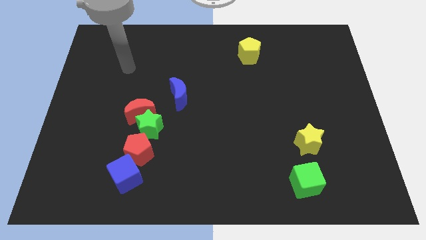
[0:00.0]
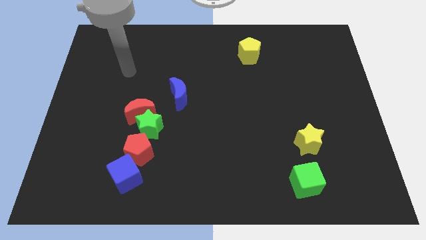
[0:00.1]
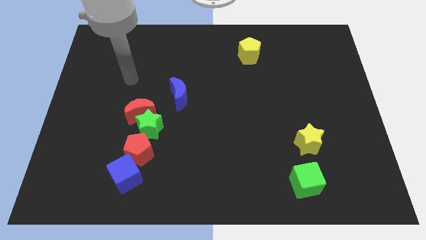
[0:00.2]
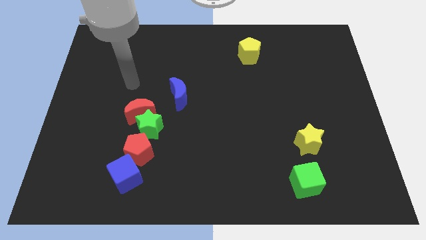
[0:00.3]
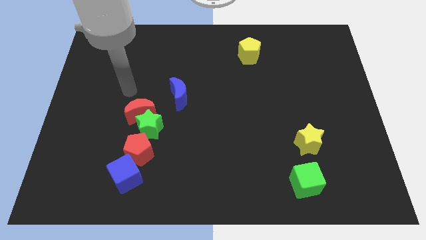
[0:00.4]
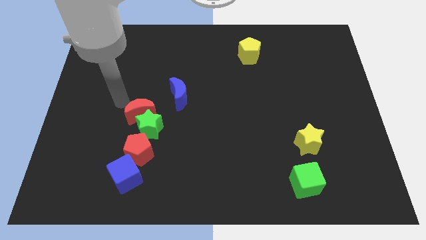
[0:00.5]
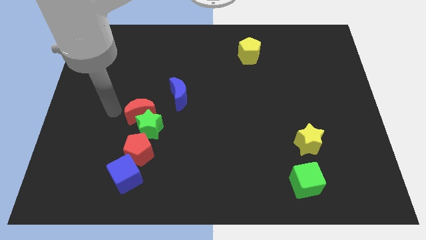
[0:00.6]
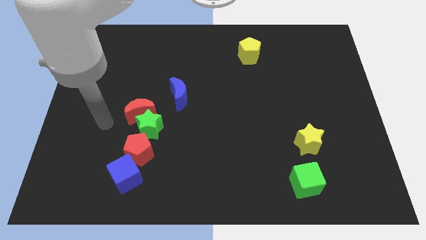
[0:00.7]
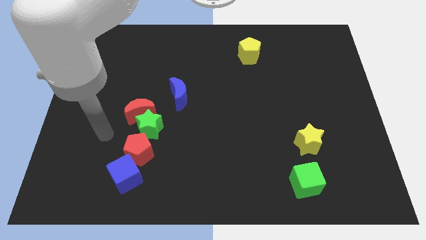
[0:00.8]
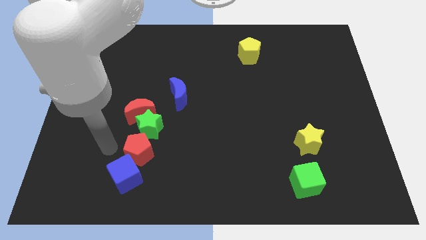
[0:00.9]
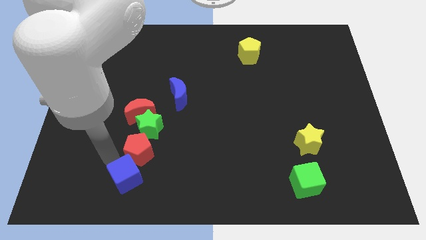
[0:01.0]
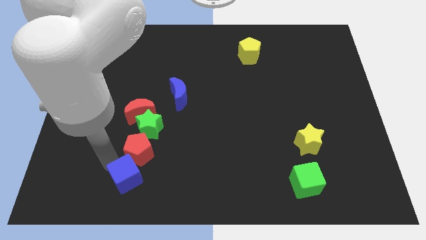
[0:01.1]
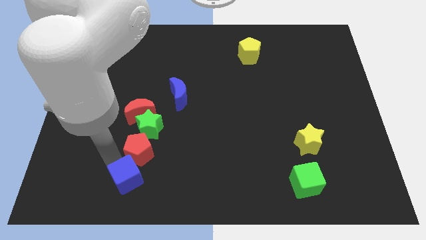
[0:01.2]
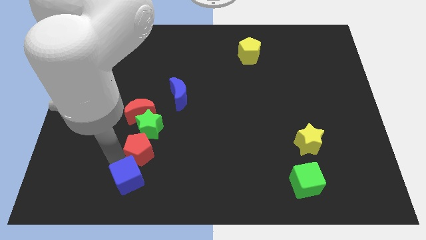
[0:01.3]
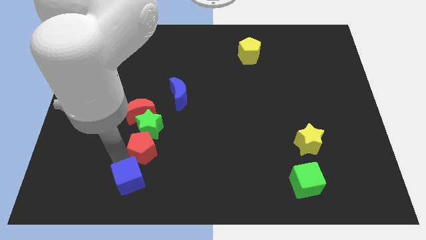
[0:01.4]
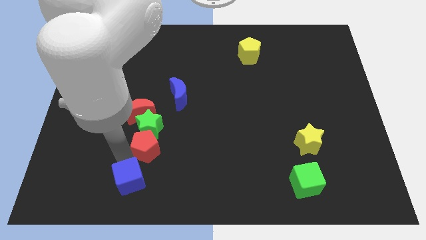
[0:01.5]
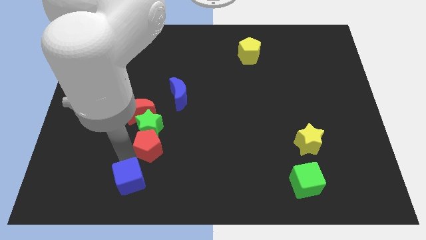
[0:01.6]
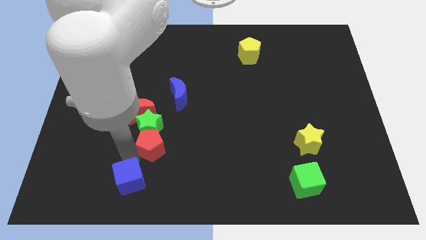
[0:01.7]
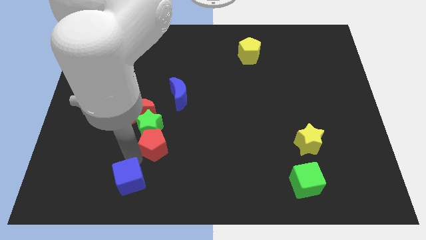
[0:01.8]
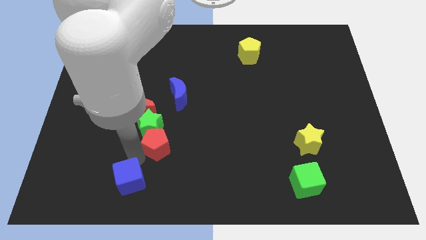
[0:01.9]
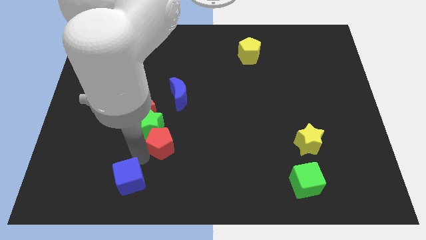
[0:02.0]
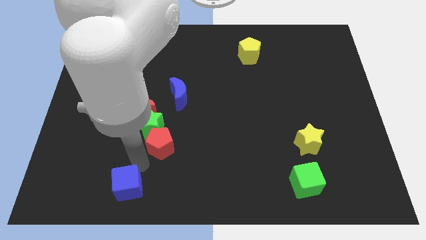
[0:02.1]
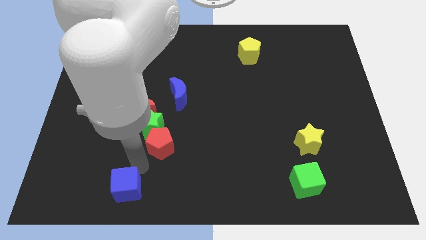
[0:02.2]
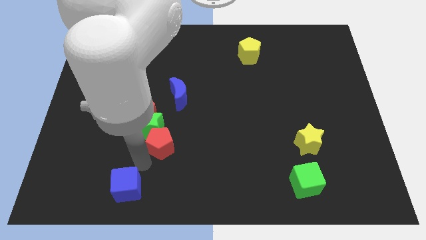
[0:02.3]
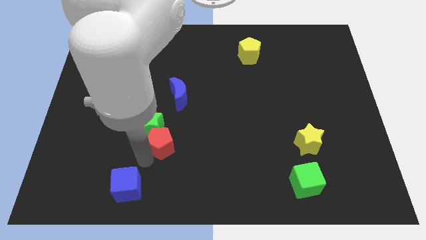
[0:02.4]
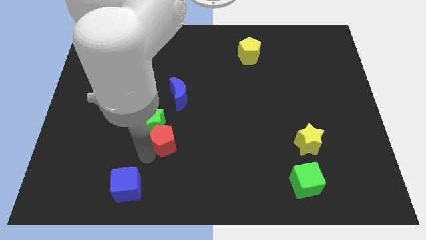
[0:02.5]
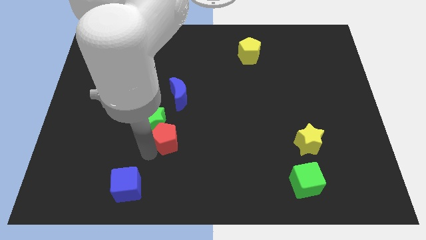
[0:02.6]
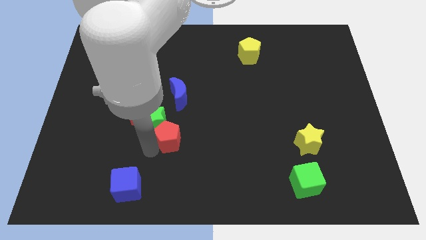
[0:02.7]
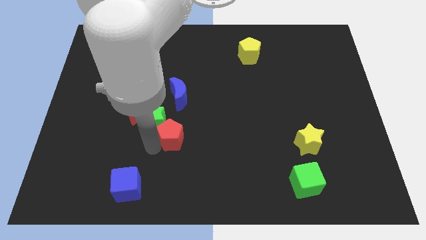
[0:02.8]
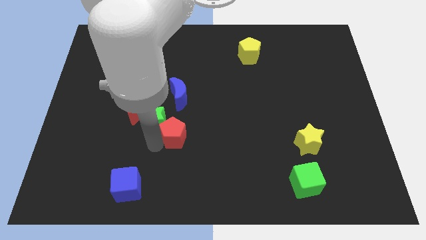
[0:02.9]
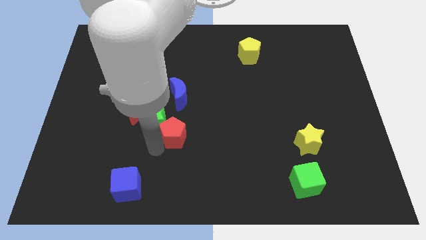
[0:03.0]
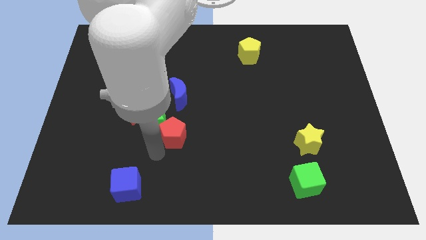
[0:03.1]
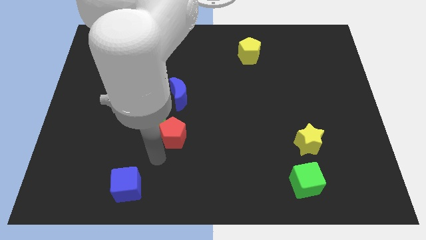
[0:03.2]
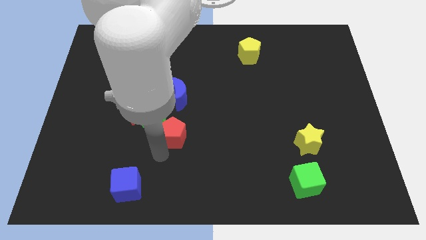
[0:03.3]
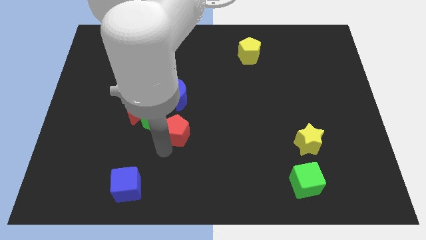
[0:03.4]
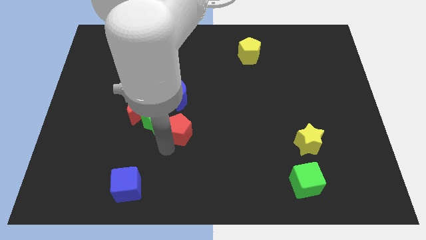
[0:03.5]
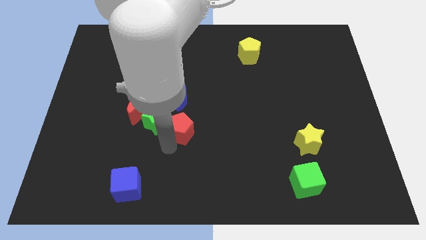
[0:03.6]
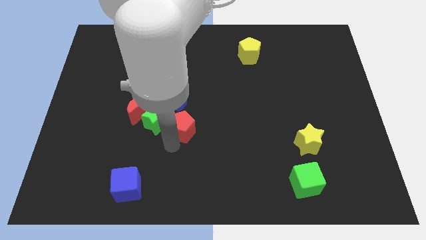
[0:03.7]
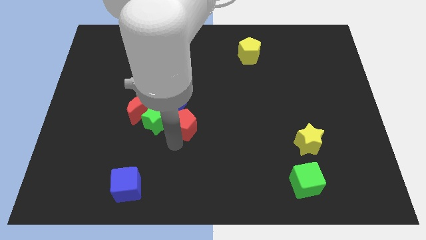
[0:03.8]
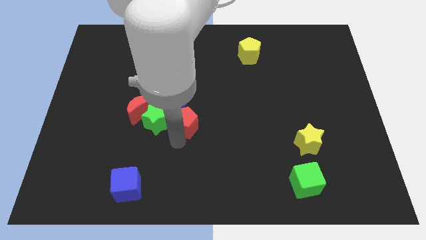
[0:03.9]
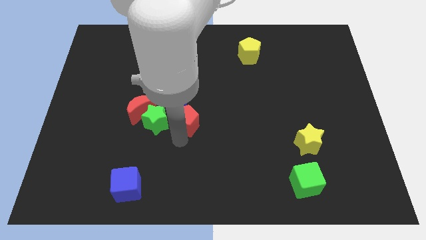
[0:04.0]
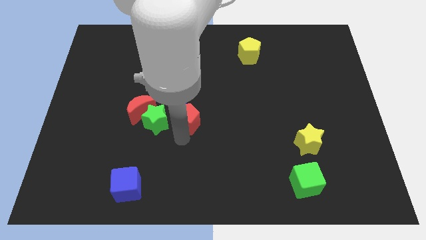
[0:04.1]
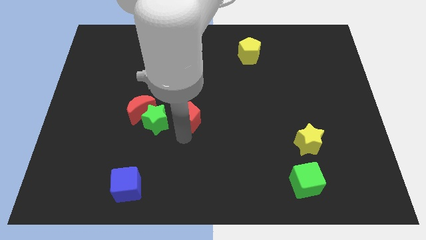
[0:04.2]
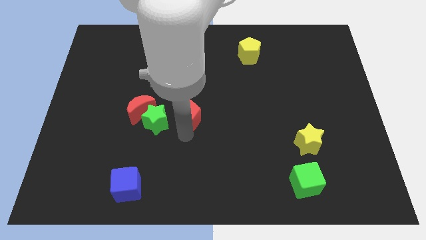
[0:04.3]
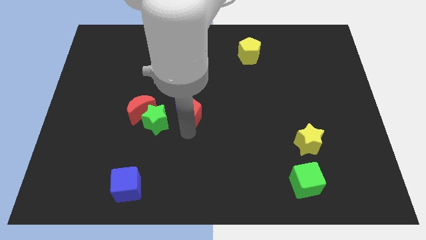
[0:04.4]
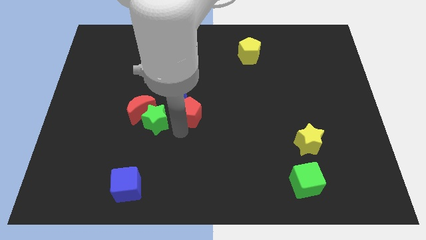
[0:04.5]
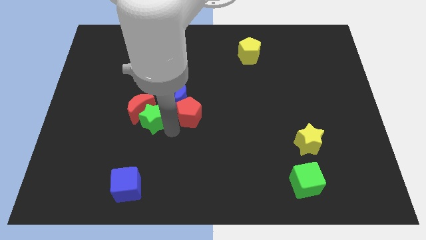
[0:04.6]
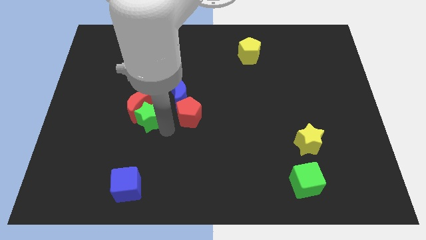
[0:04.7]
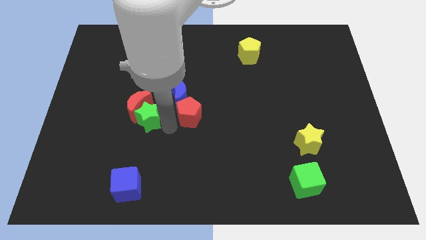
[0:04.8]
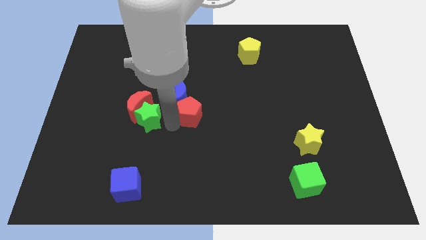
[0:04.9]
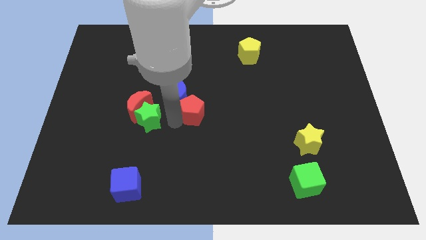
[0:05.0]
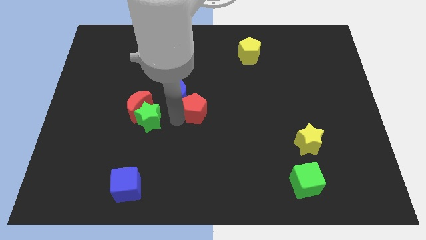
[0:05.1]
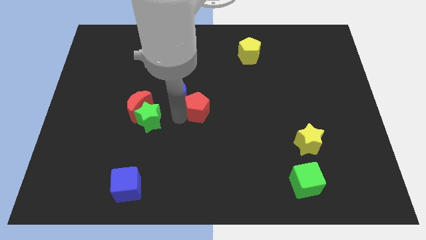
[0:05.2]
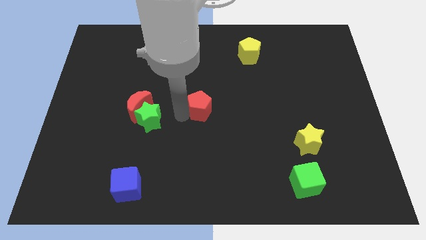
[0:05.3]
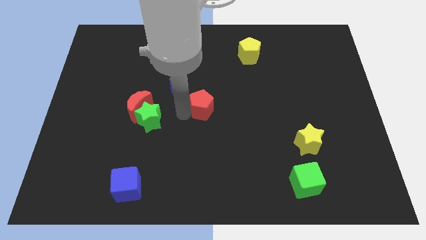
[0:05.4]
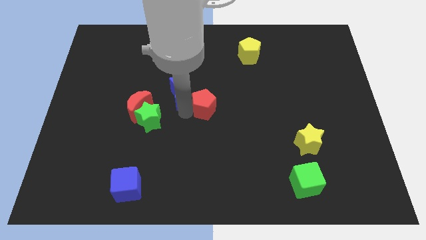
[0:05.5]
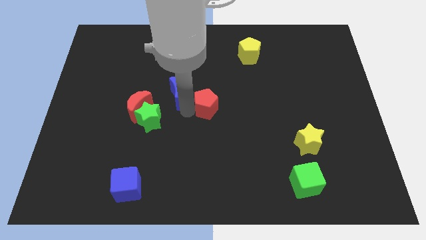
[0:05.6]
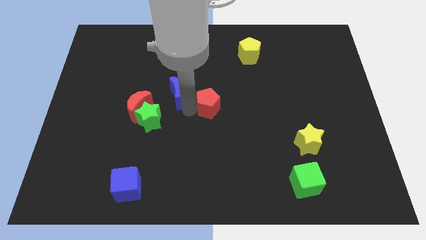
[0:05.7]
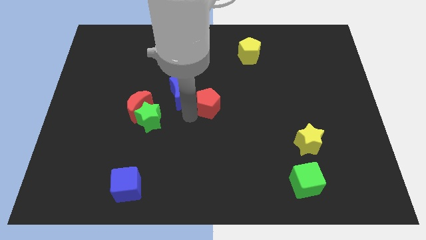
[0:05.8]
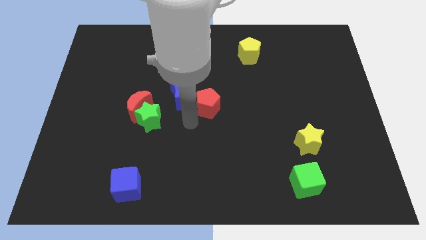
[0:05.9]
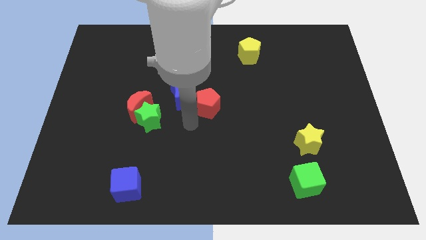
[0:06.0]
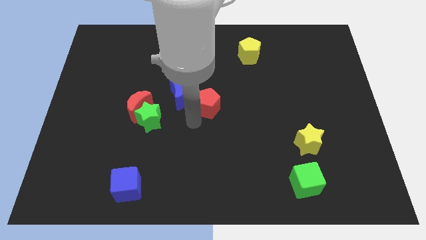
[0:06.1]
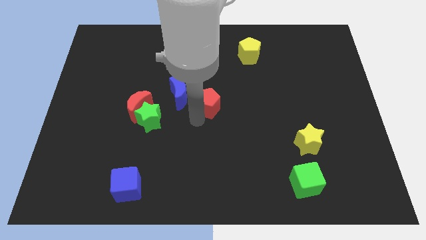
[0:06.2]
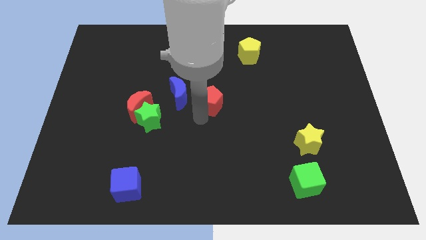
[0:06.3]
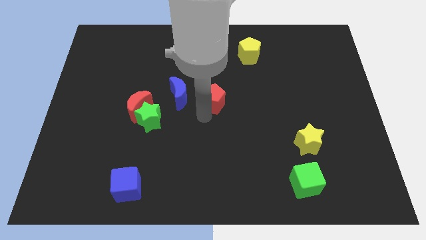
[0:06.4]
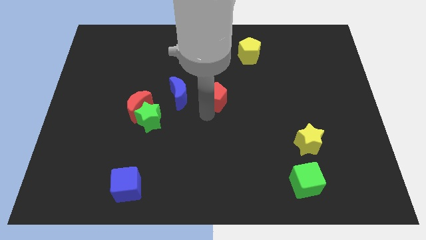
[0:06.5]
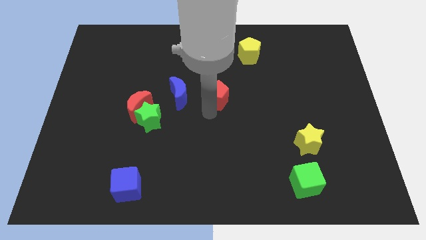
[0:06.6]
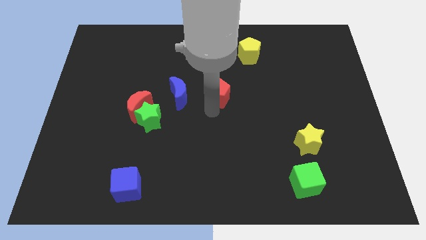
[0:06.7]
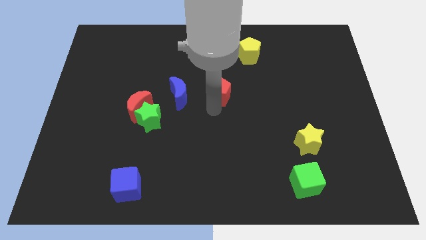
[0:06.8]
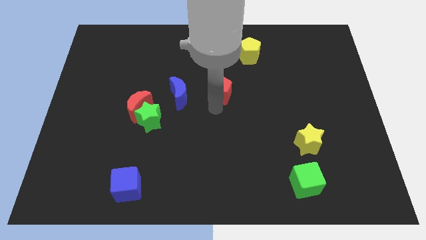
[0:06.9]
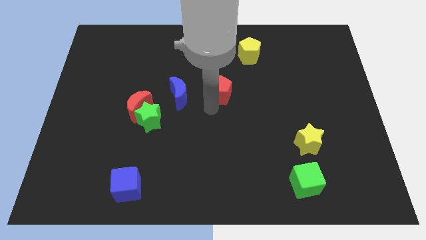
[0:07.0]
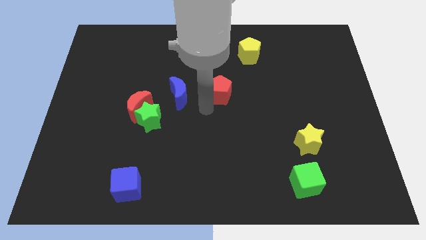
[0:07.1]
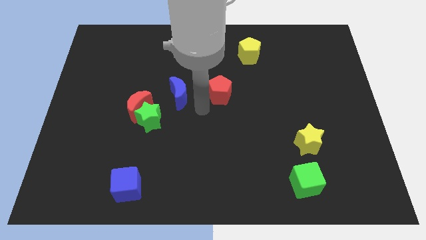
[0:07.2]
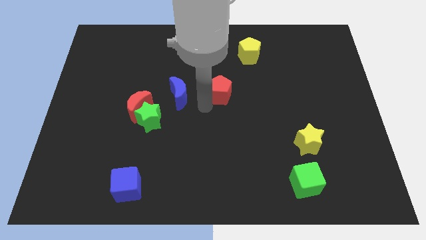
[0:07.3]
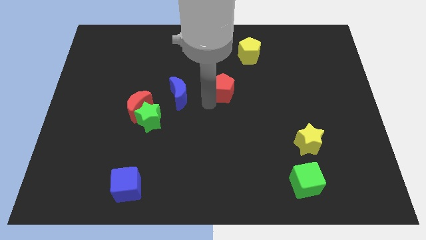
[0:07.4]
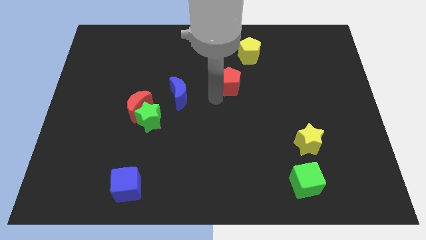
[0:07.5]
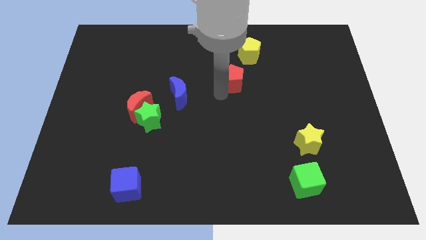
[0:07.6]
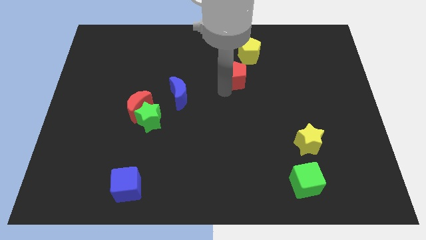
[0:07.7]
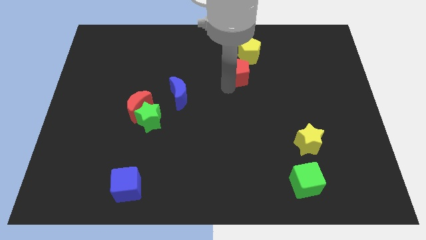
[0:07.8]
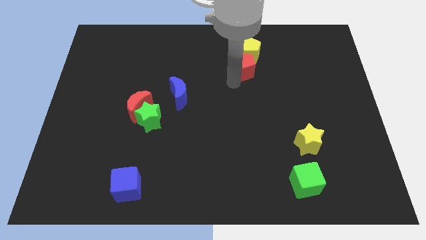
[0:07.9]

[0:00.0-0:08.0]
put the red pentagon to the yellow pentagon

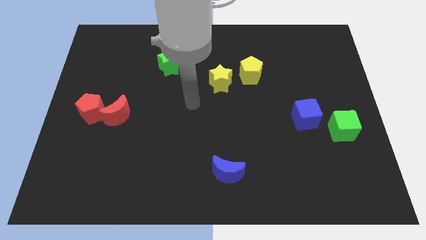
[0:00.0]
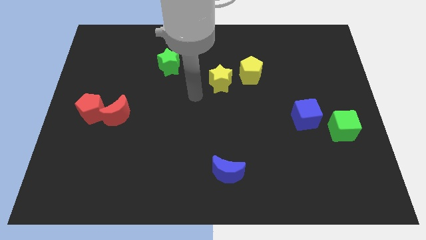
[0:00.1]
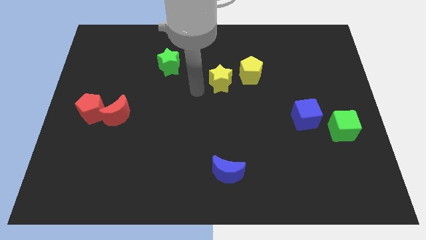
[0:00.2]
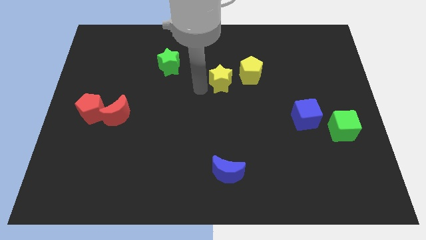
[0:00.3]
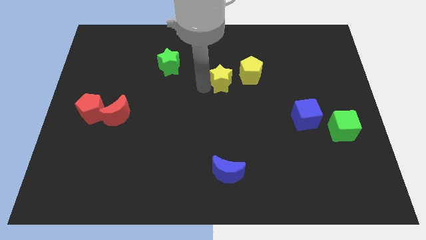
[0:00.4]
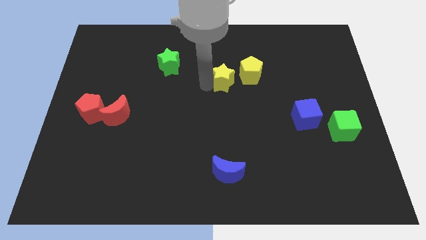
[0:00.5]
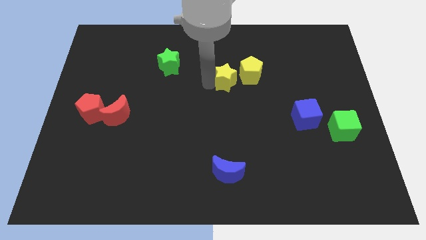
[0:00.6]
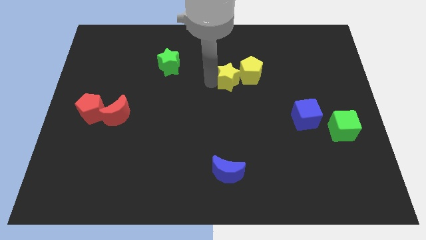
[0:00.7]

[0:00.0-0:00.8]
put the yellow star towards the yellow pentagon
